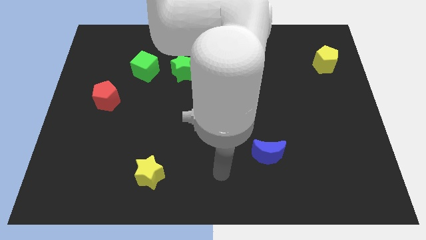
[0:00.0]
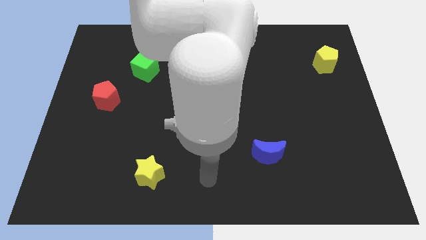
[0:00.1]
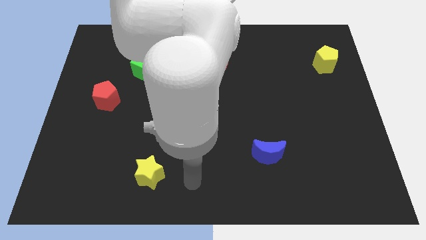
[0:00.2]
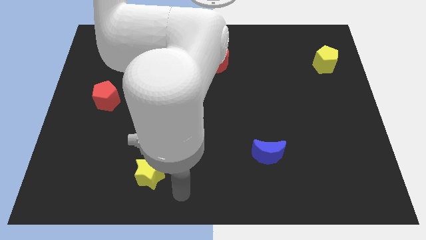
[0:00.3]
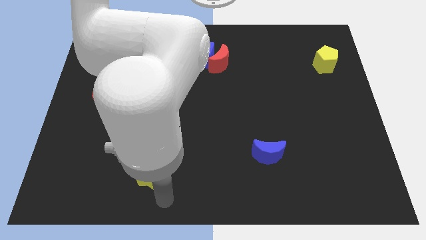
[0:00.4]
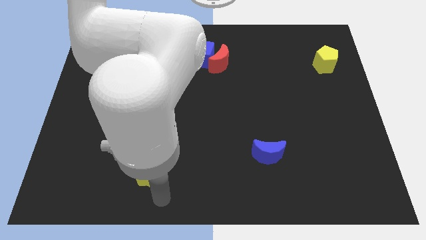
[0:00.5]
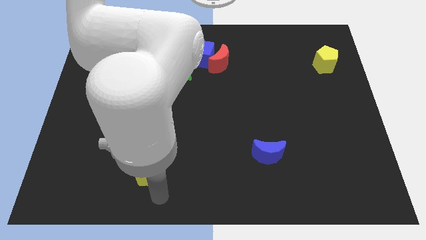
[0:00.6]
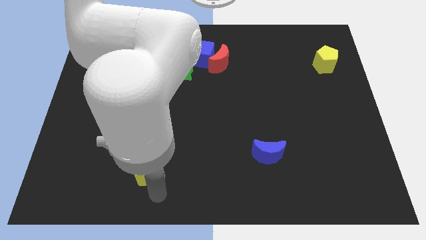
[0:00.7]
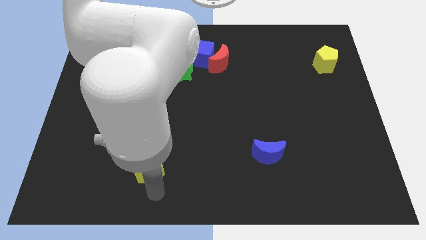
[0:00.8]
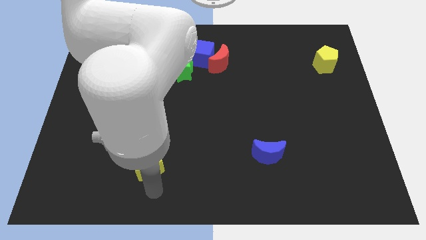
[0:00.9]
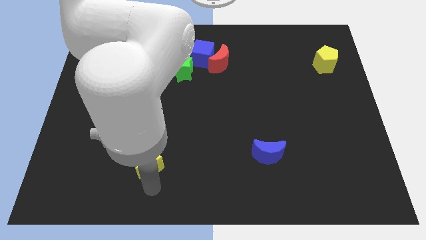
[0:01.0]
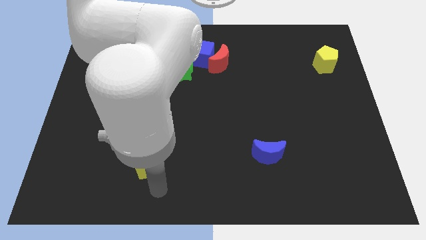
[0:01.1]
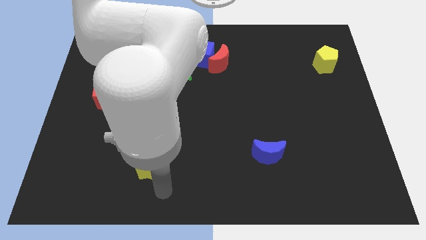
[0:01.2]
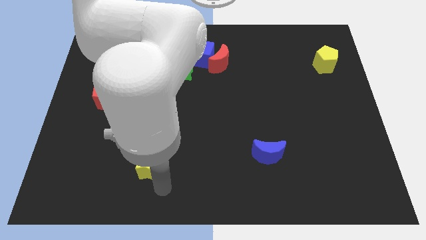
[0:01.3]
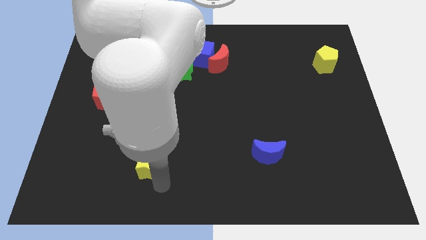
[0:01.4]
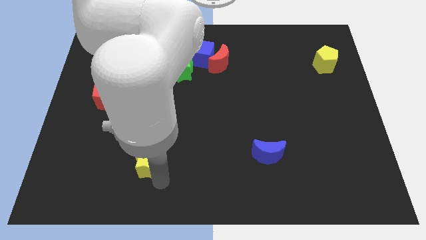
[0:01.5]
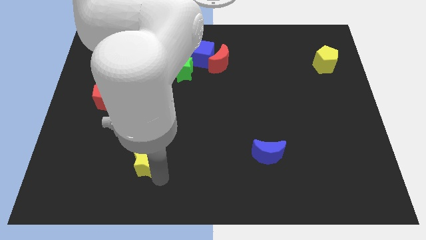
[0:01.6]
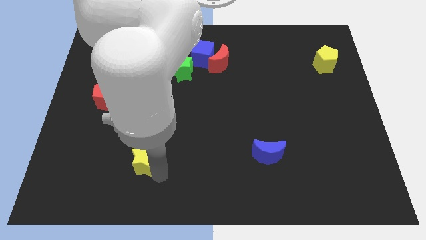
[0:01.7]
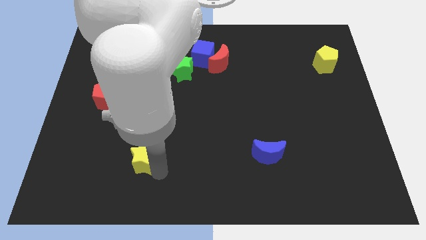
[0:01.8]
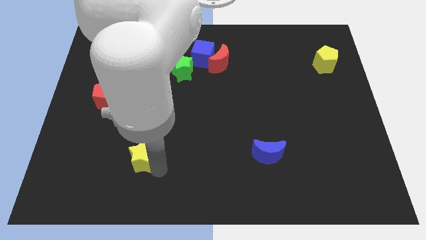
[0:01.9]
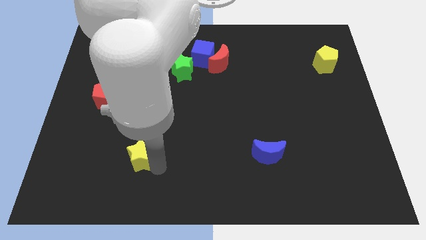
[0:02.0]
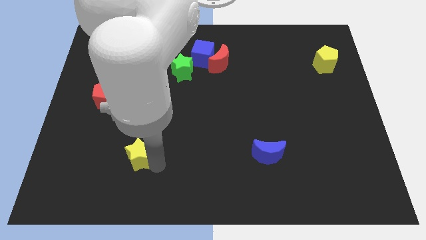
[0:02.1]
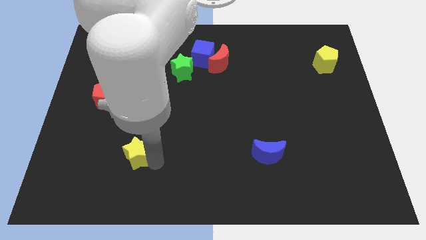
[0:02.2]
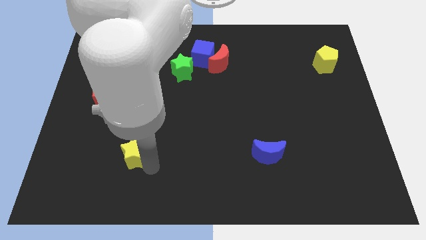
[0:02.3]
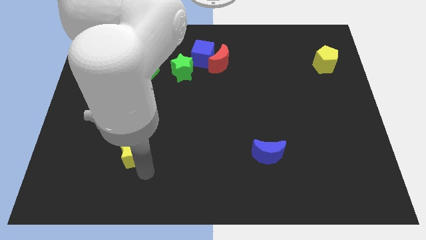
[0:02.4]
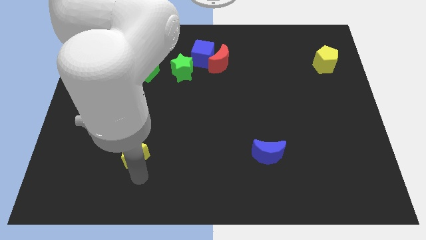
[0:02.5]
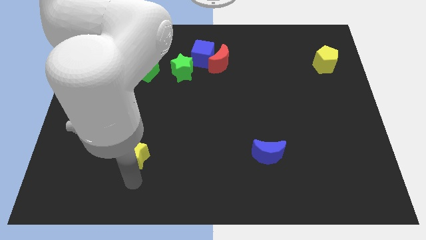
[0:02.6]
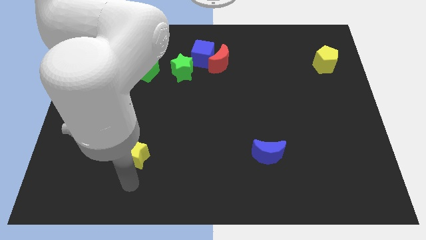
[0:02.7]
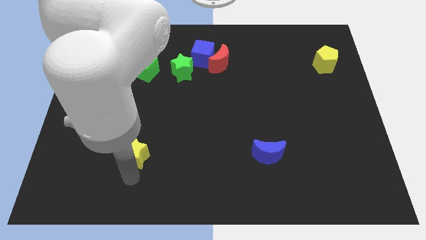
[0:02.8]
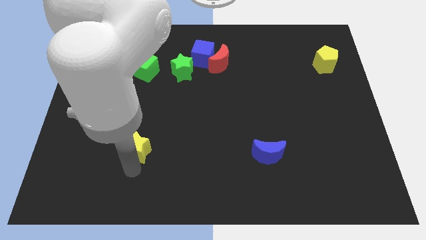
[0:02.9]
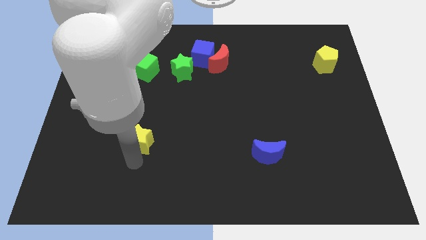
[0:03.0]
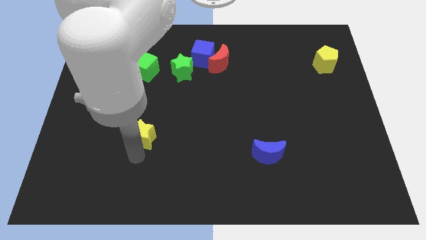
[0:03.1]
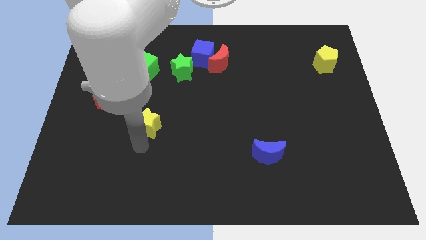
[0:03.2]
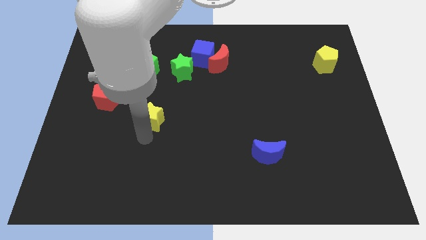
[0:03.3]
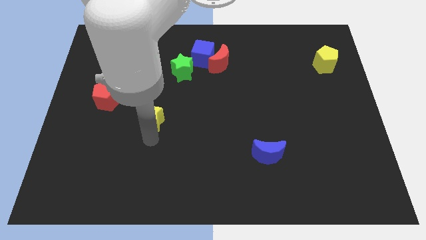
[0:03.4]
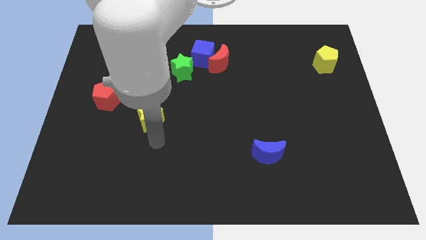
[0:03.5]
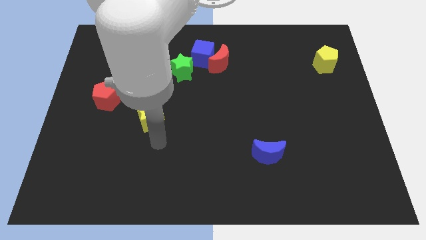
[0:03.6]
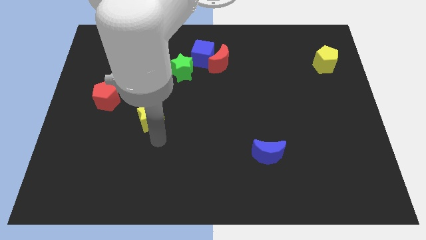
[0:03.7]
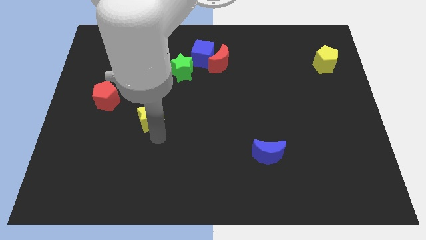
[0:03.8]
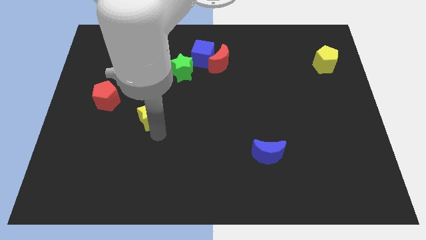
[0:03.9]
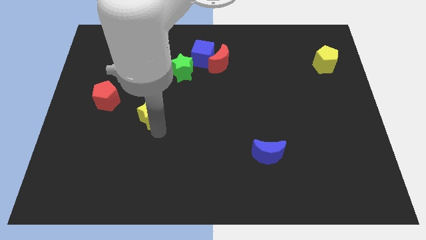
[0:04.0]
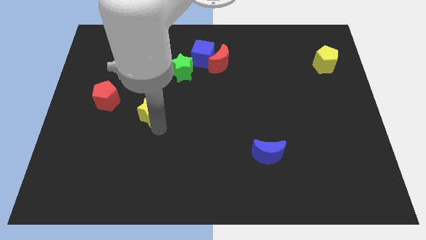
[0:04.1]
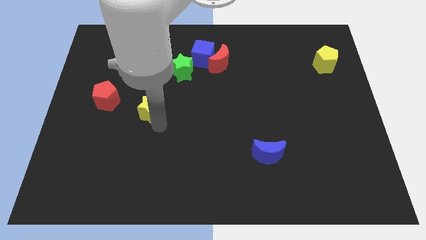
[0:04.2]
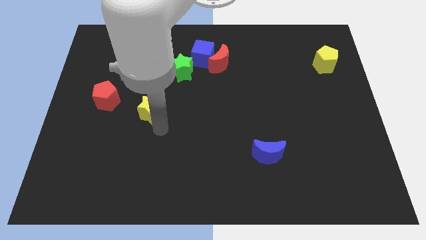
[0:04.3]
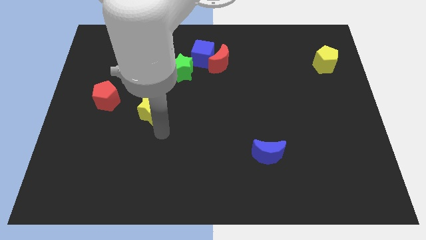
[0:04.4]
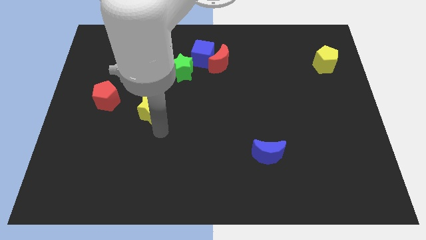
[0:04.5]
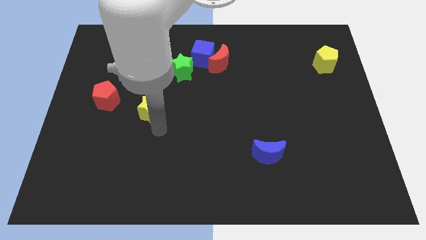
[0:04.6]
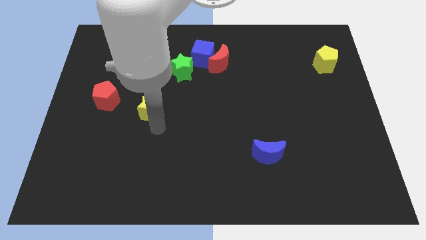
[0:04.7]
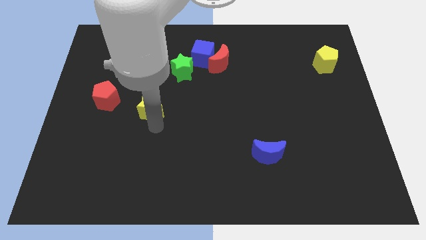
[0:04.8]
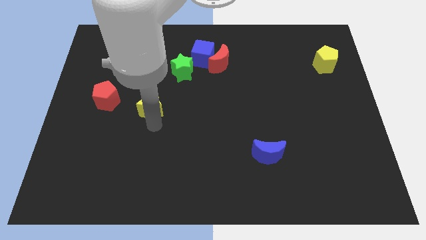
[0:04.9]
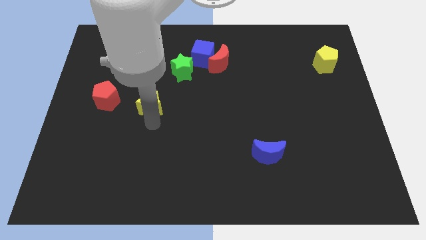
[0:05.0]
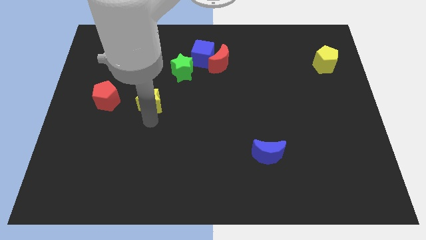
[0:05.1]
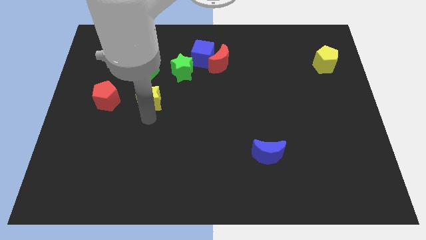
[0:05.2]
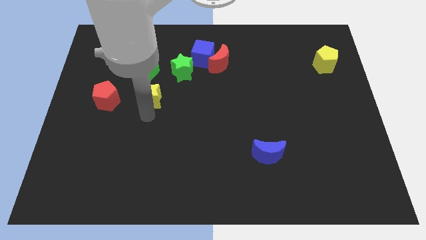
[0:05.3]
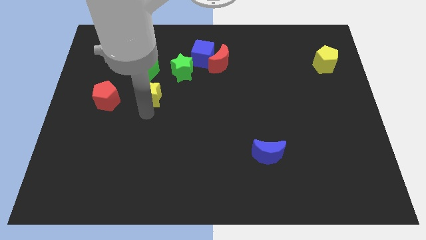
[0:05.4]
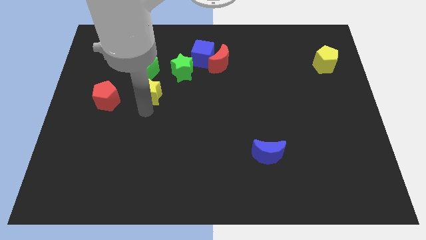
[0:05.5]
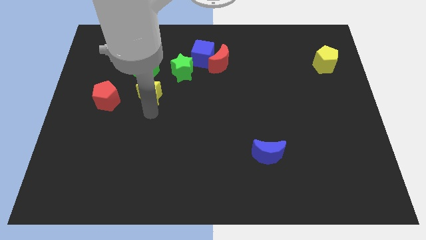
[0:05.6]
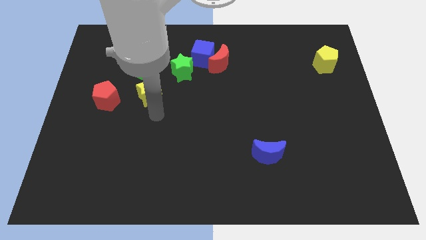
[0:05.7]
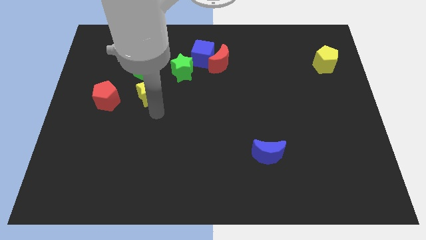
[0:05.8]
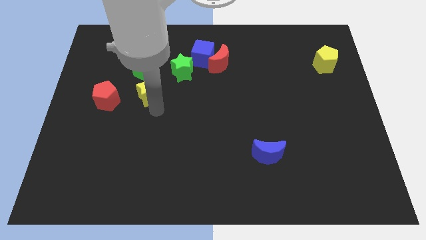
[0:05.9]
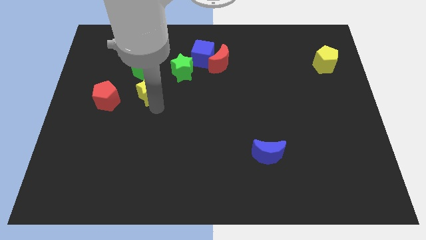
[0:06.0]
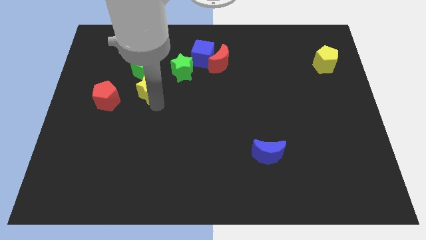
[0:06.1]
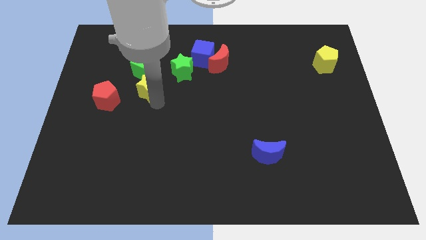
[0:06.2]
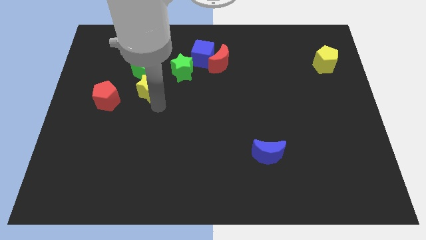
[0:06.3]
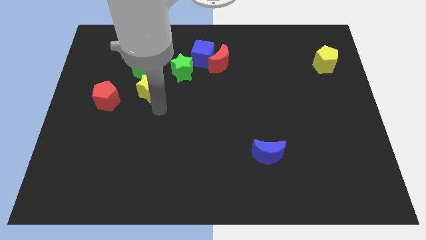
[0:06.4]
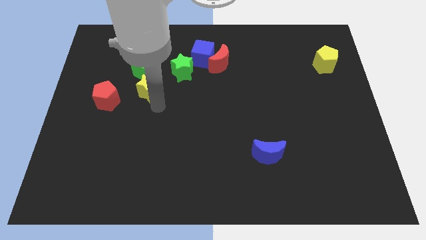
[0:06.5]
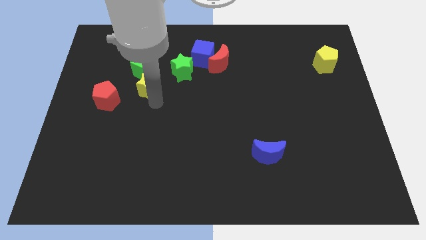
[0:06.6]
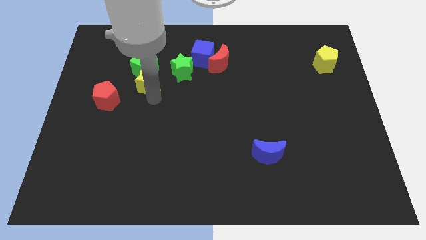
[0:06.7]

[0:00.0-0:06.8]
slide the yellow star next to the green cube
